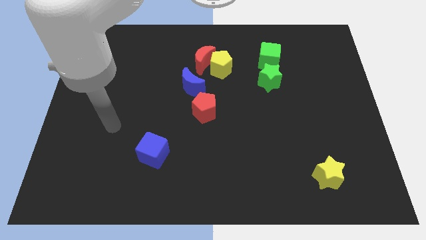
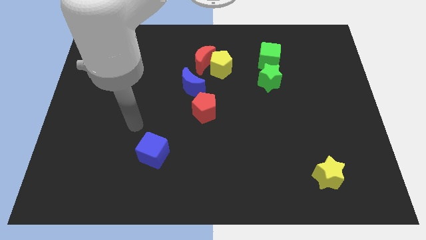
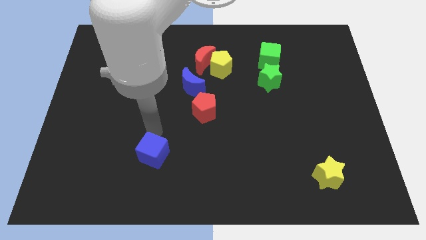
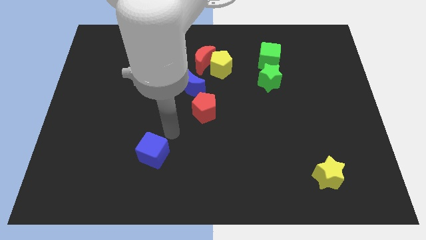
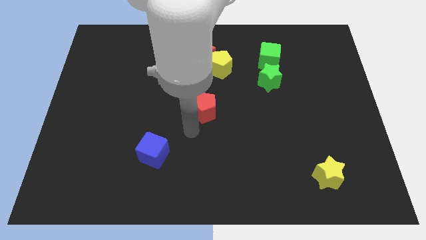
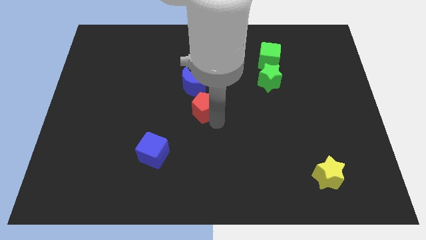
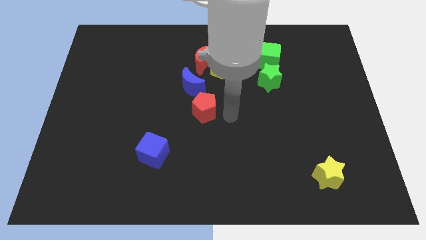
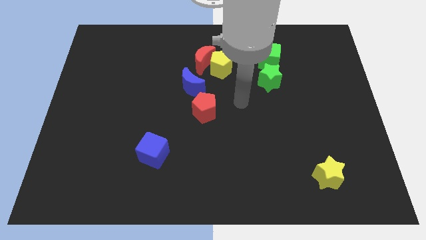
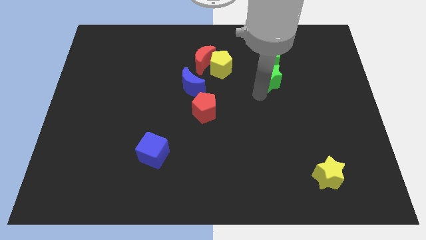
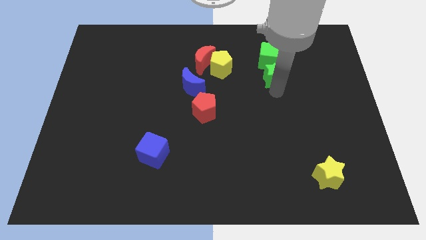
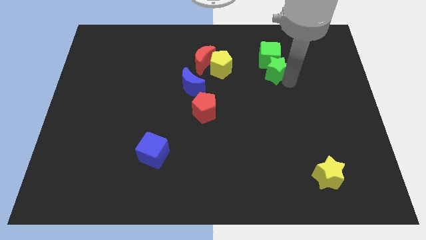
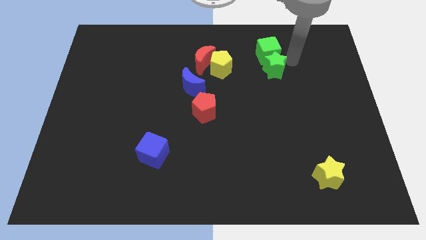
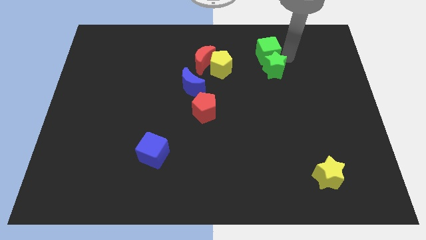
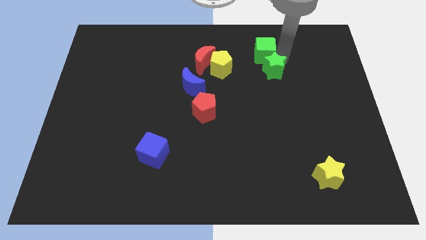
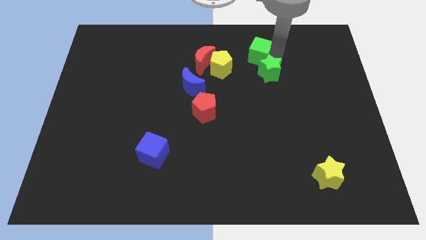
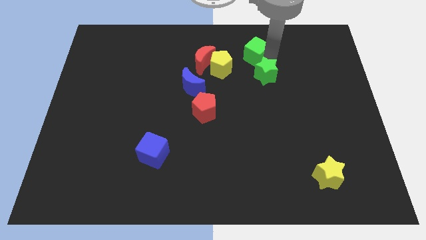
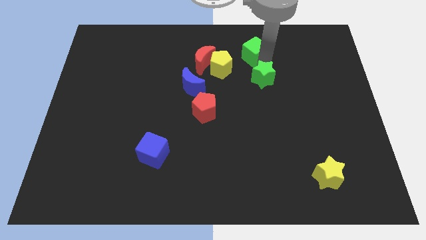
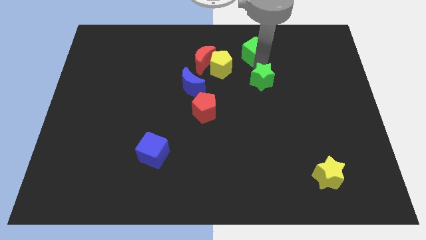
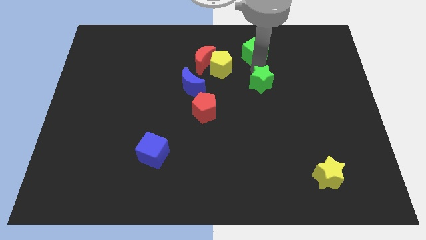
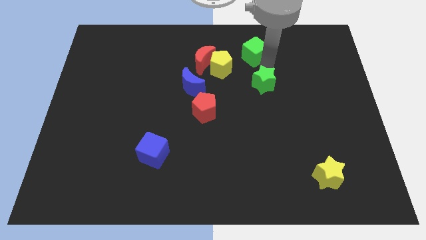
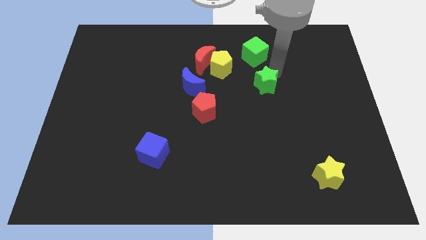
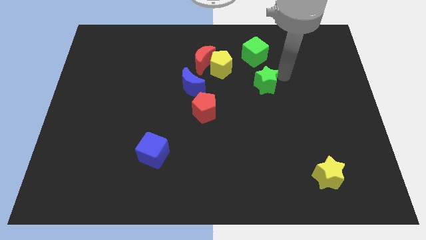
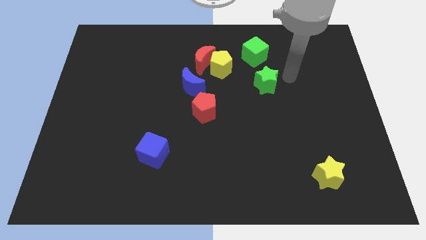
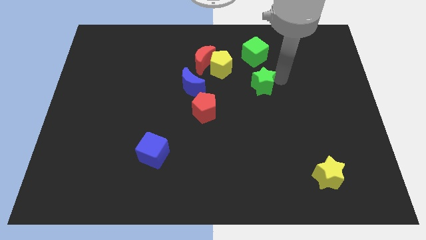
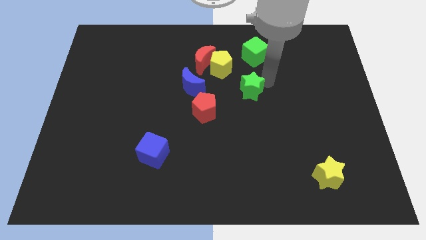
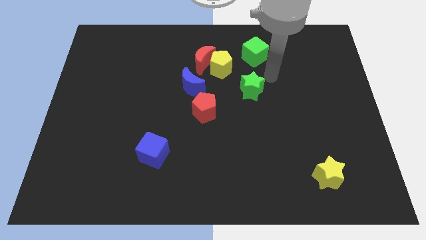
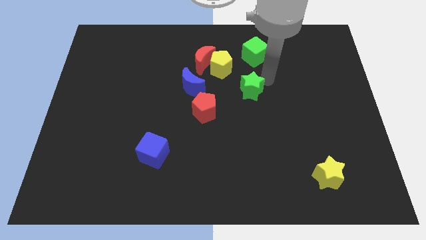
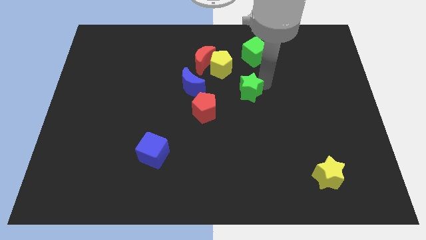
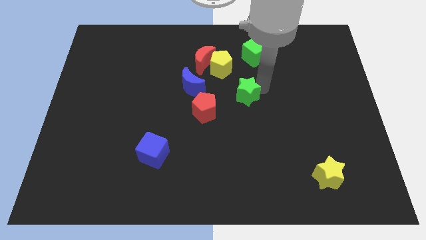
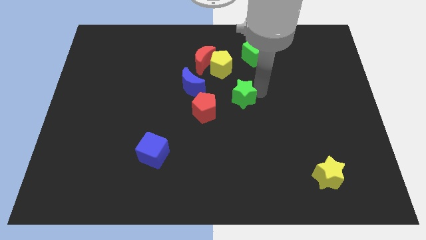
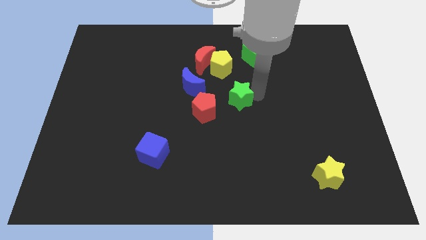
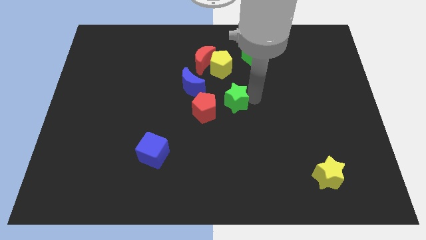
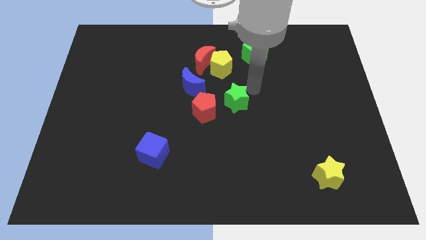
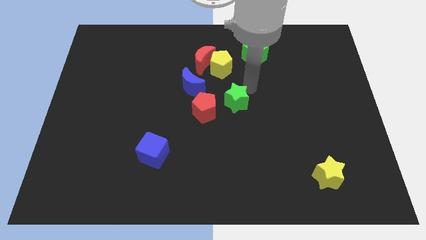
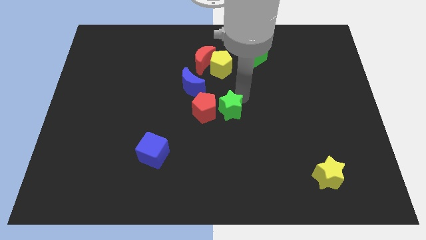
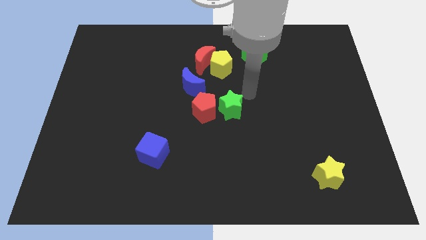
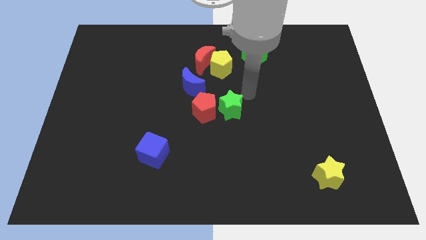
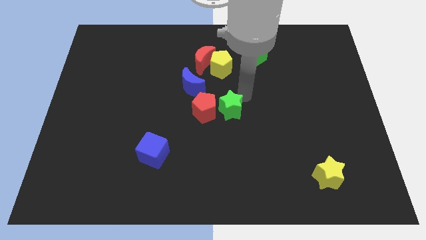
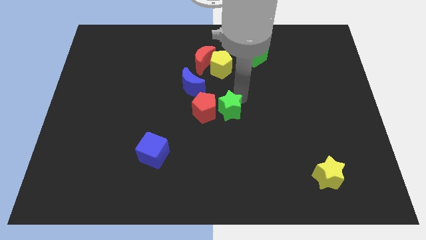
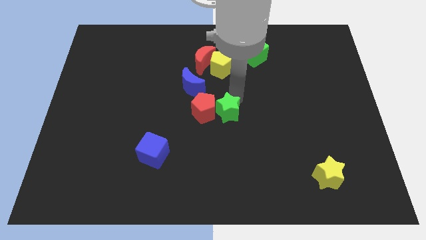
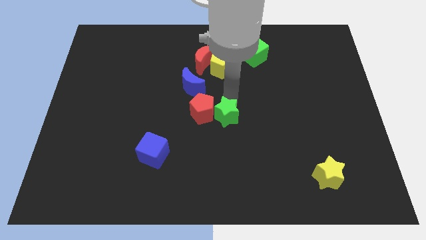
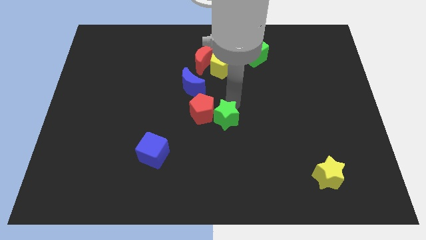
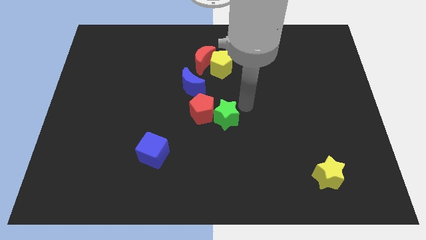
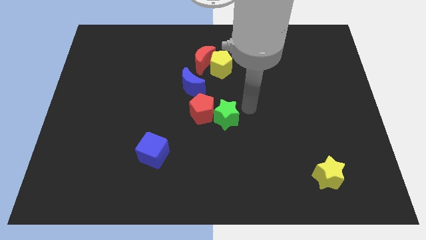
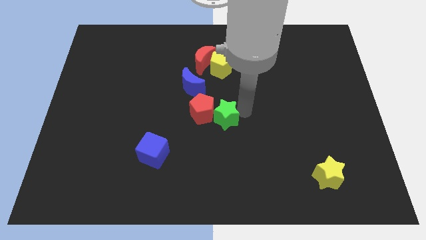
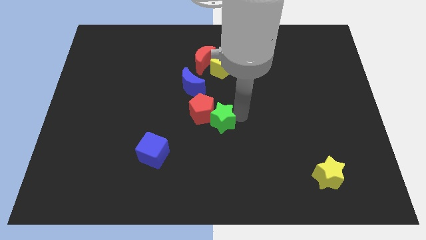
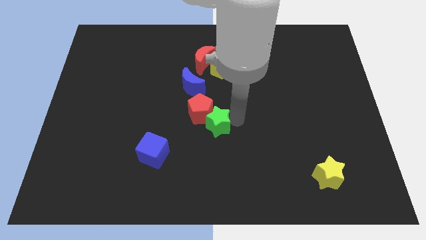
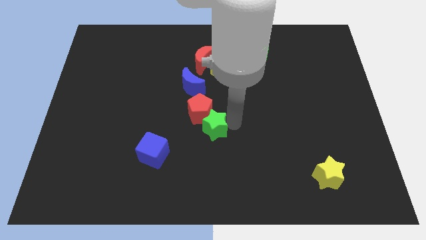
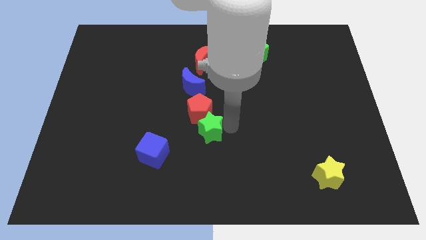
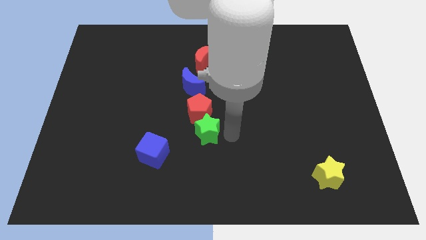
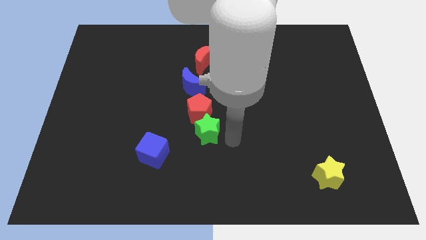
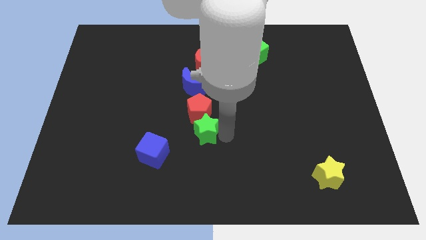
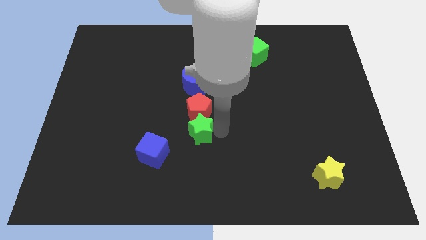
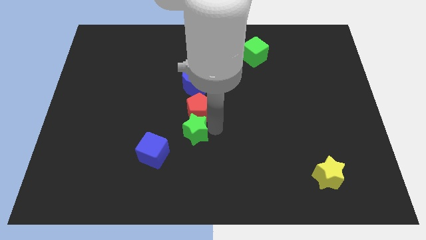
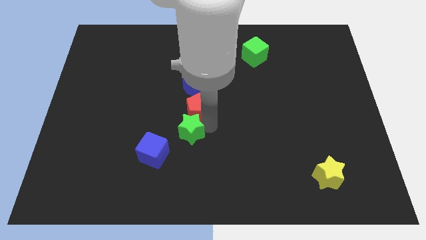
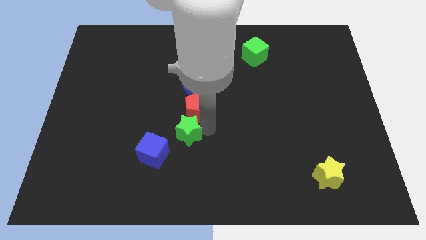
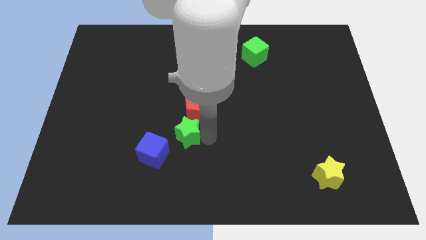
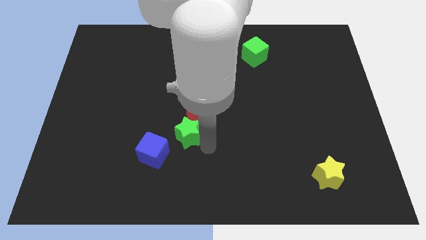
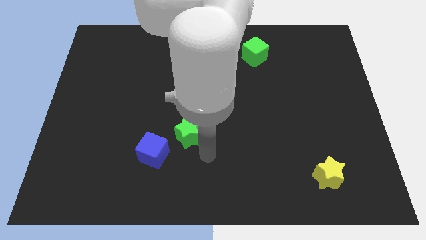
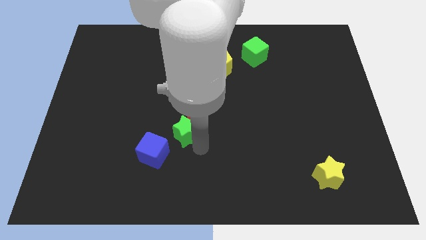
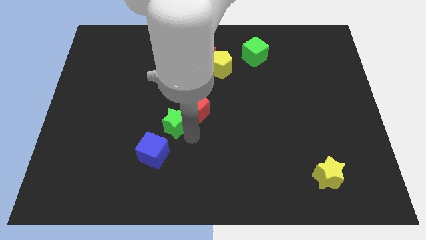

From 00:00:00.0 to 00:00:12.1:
slide the green star left of the red pentagon

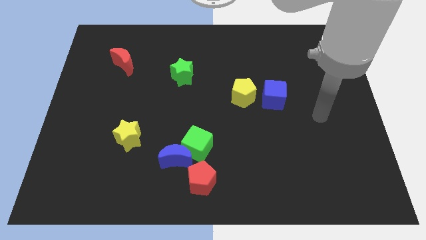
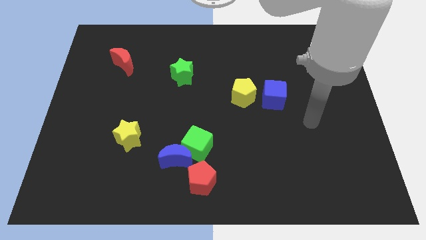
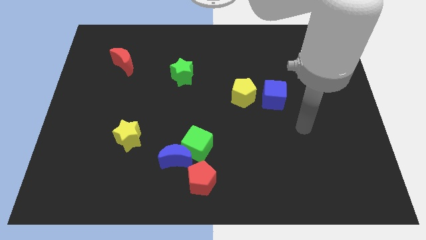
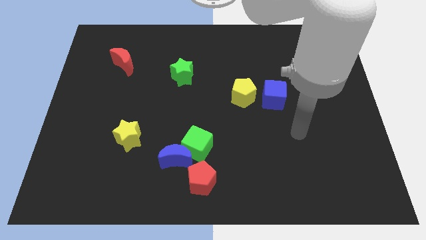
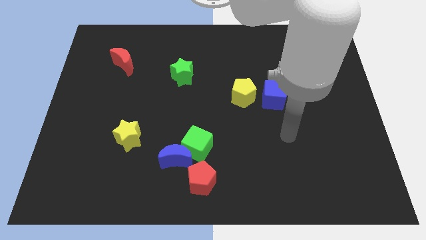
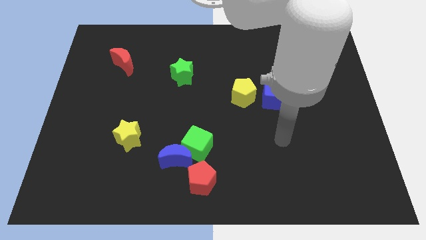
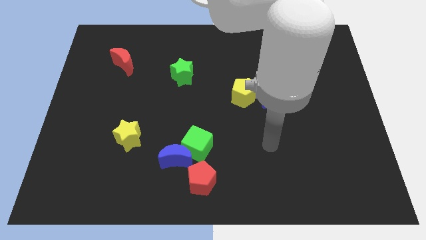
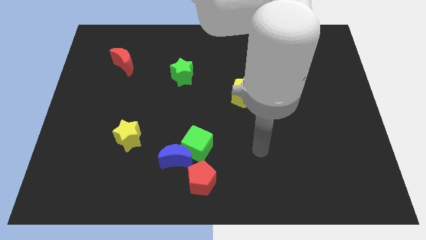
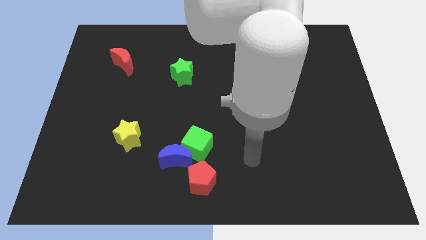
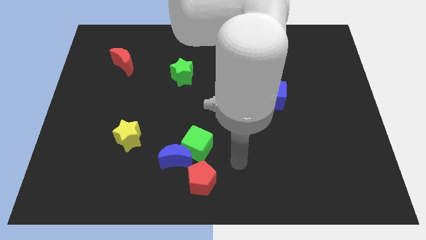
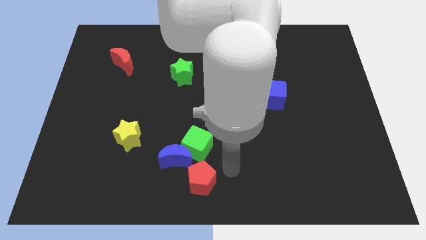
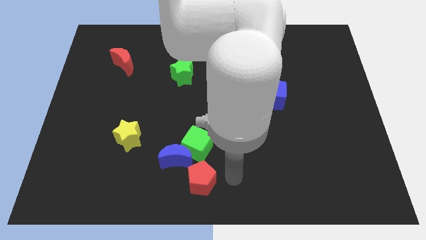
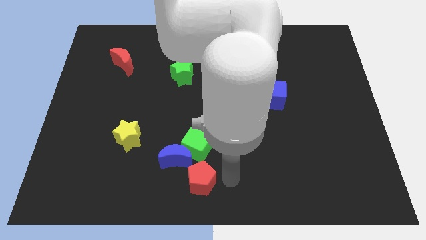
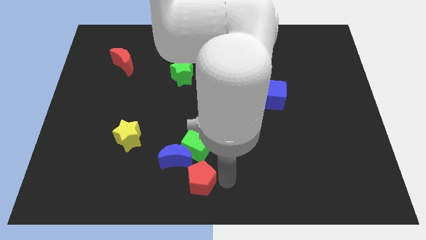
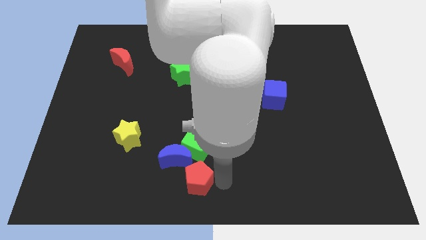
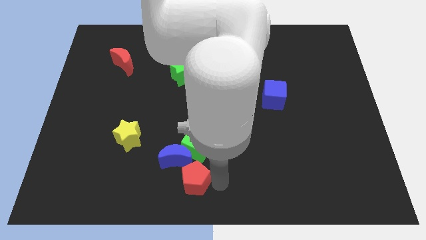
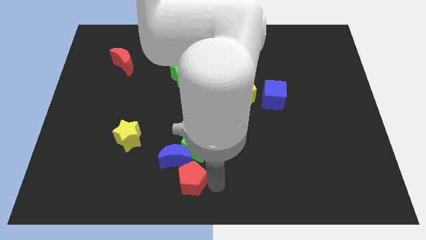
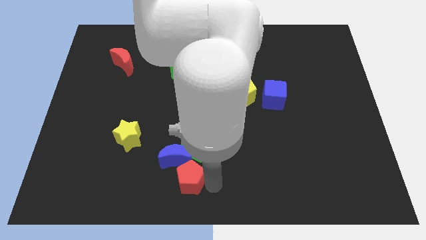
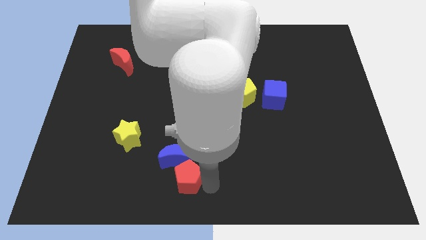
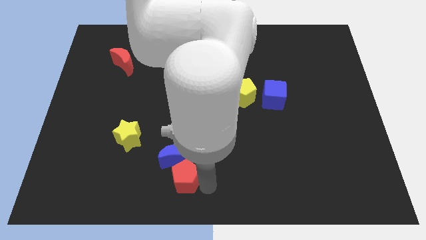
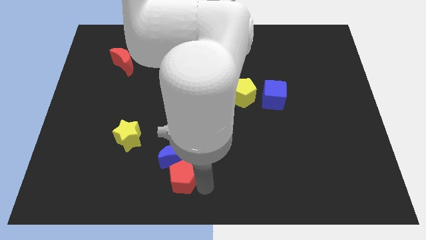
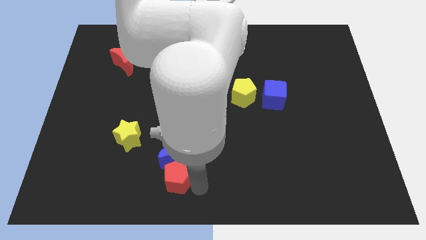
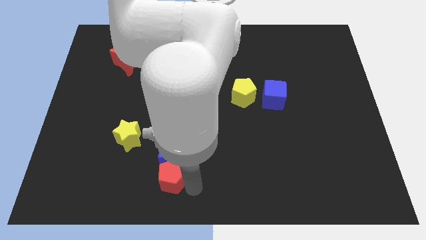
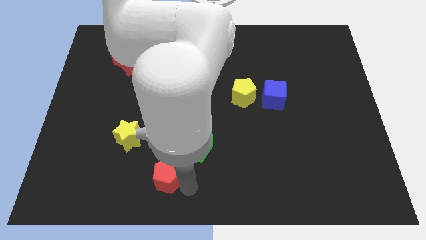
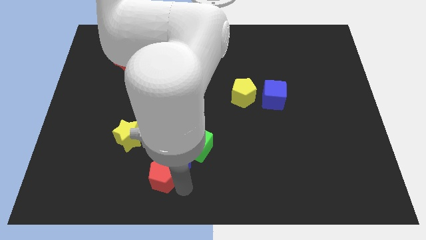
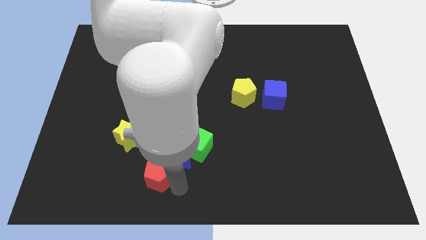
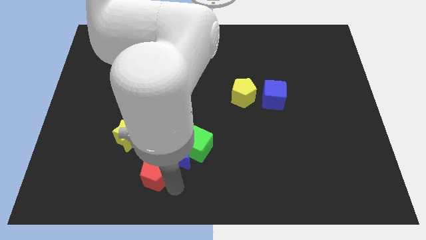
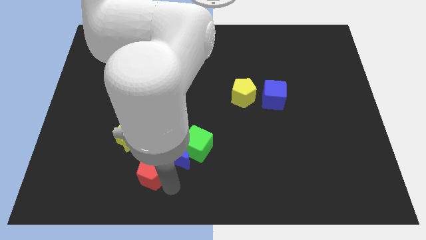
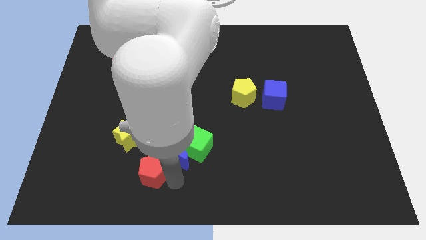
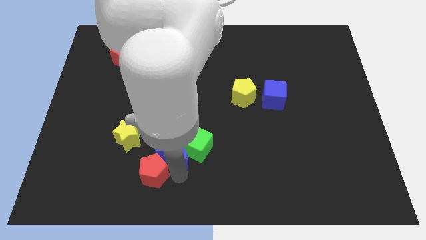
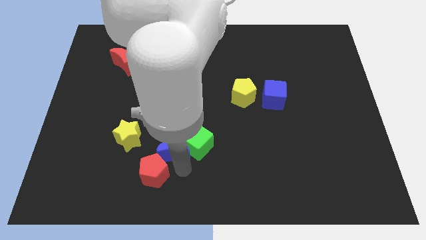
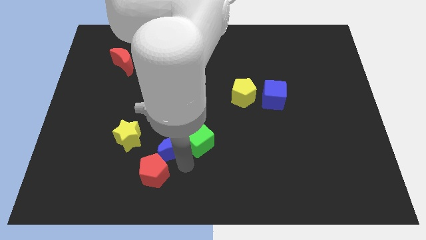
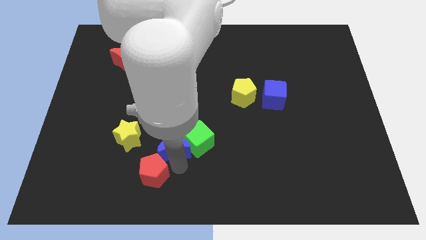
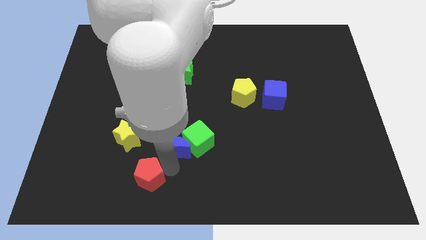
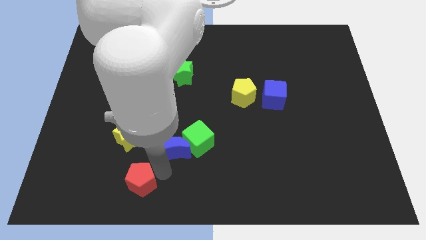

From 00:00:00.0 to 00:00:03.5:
put the red pentagon below the yellow star
